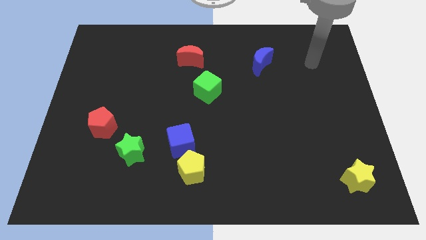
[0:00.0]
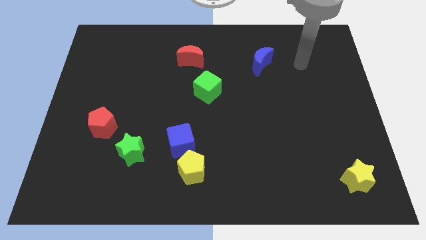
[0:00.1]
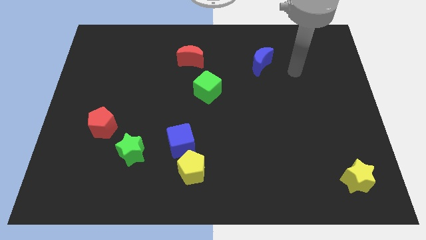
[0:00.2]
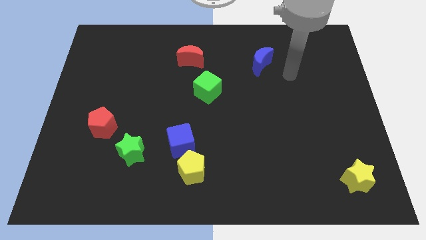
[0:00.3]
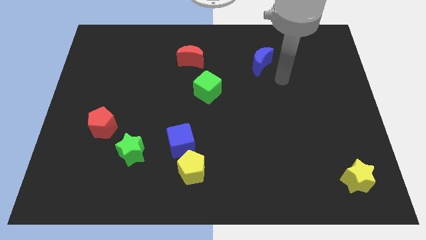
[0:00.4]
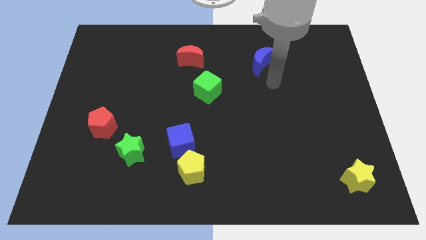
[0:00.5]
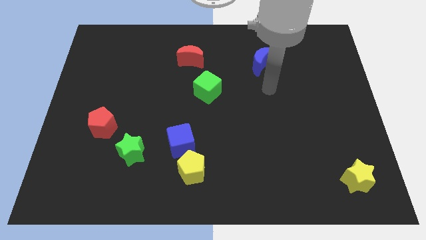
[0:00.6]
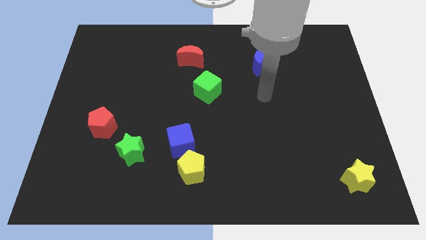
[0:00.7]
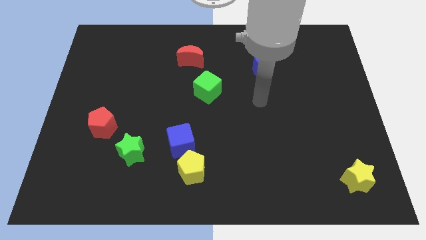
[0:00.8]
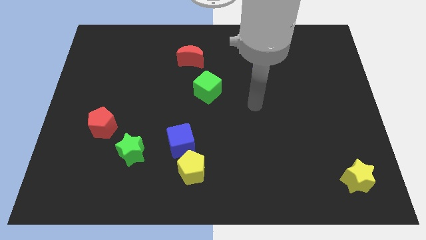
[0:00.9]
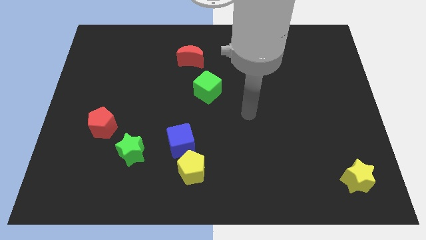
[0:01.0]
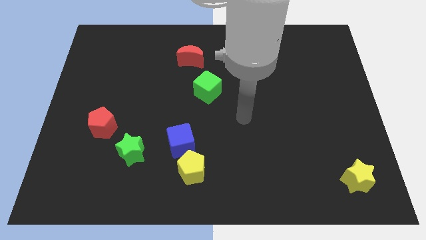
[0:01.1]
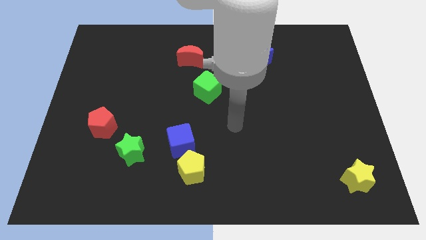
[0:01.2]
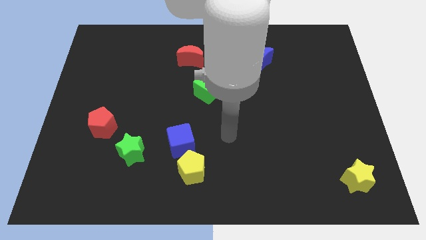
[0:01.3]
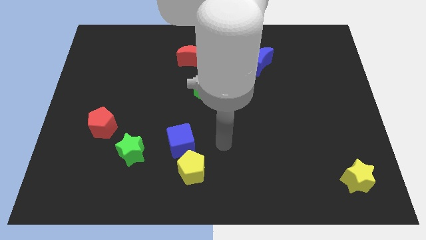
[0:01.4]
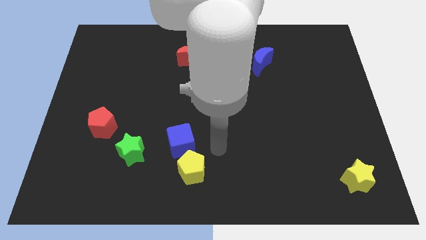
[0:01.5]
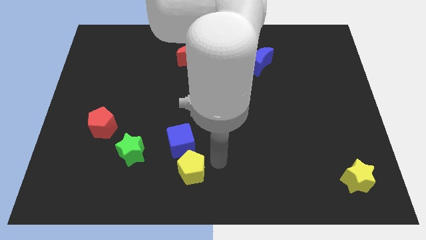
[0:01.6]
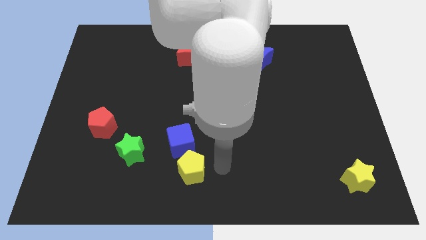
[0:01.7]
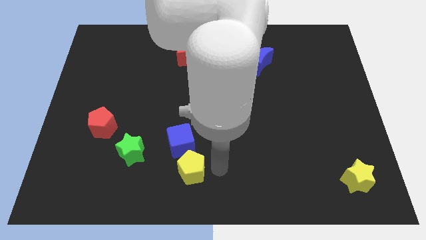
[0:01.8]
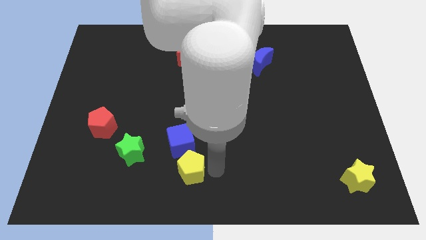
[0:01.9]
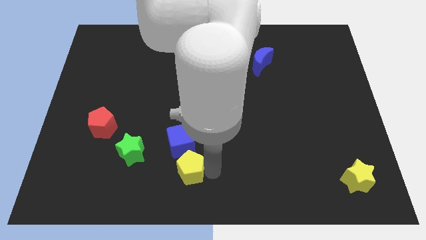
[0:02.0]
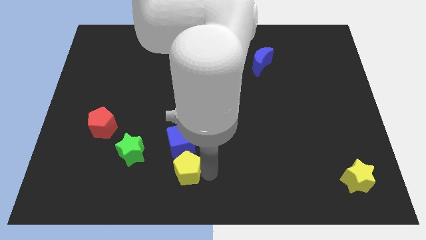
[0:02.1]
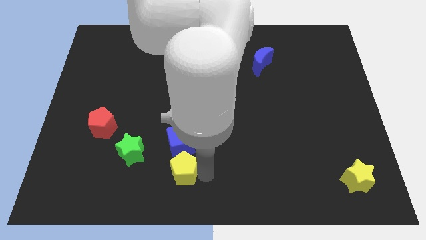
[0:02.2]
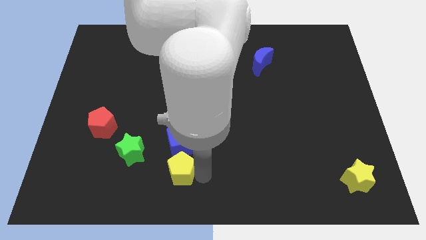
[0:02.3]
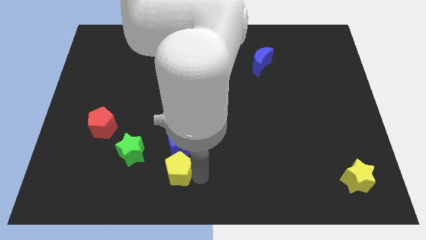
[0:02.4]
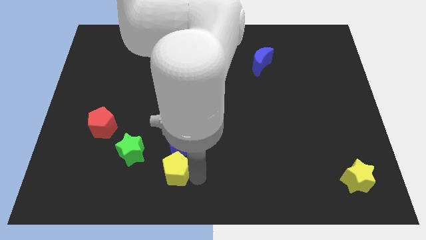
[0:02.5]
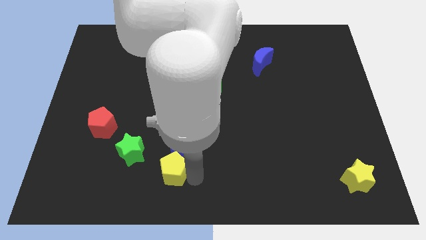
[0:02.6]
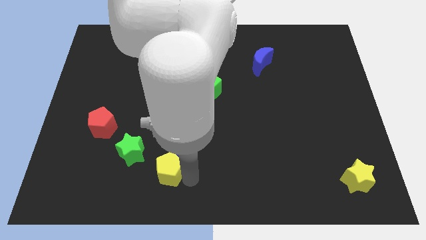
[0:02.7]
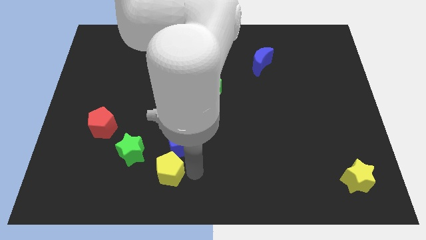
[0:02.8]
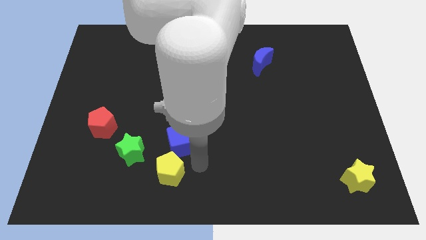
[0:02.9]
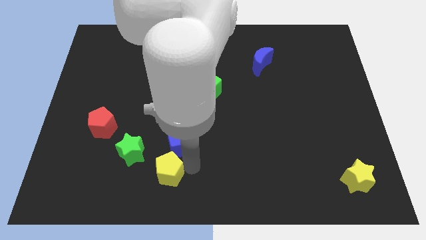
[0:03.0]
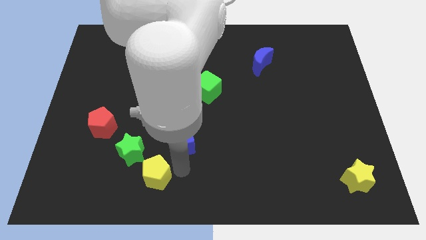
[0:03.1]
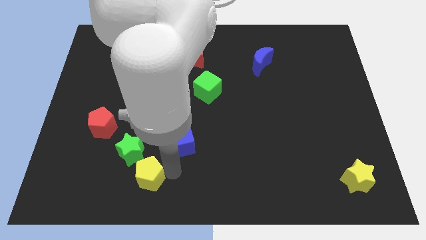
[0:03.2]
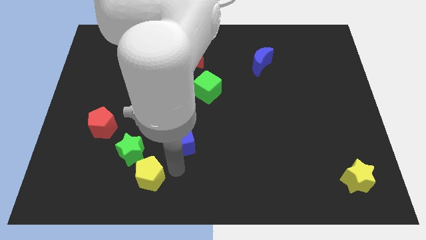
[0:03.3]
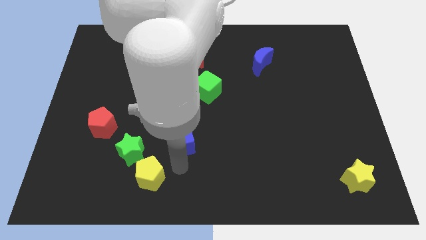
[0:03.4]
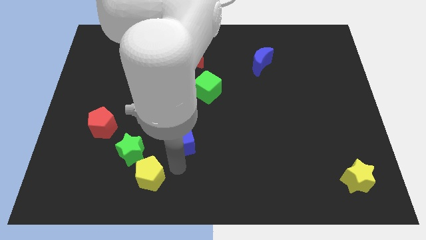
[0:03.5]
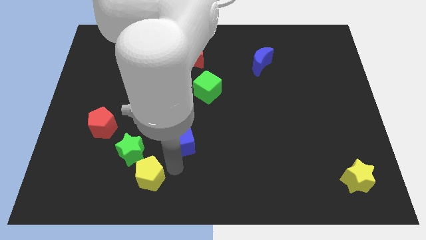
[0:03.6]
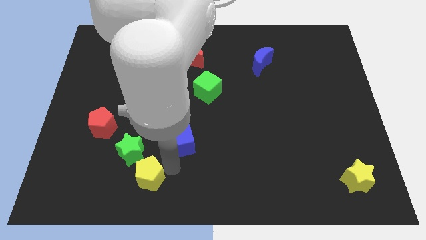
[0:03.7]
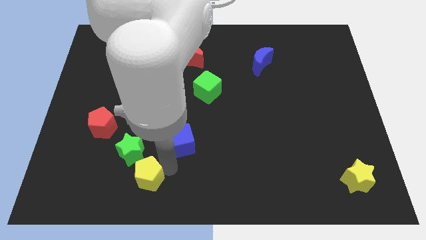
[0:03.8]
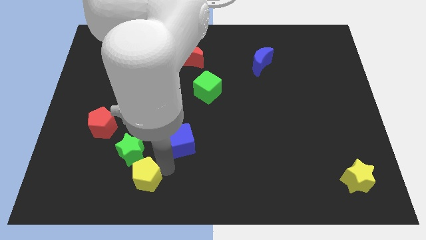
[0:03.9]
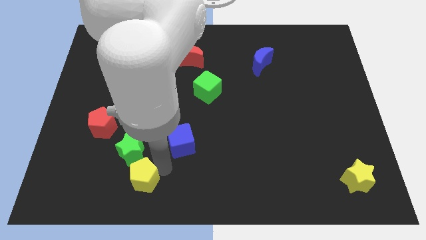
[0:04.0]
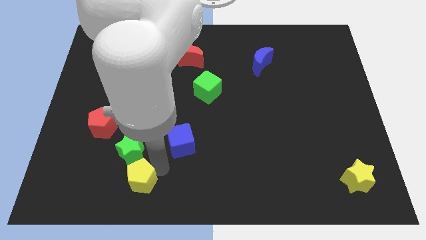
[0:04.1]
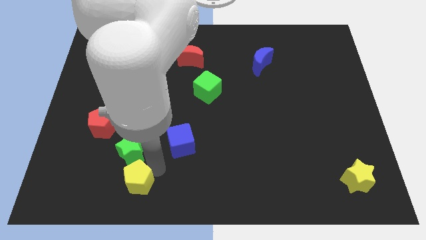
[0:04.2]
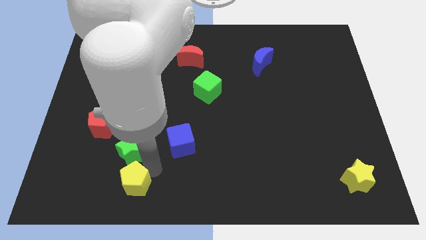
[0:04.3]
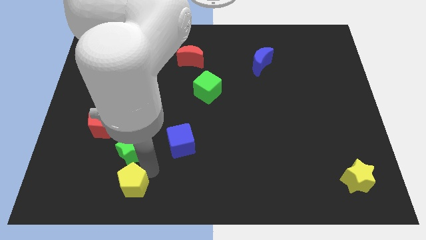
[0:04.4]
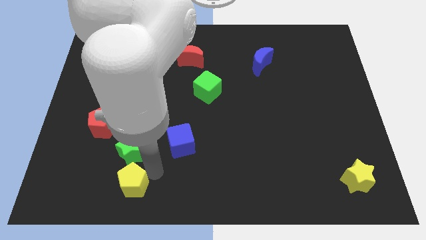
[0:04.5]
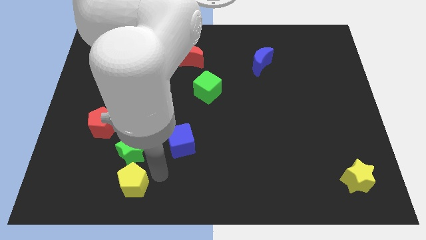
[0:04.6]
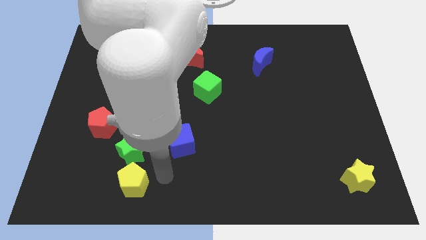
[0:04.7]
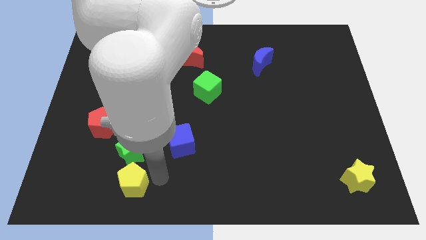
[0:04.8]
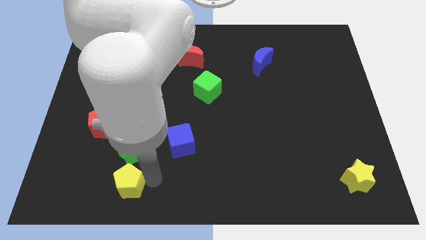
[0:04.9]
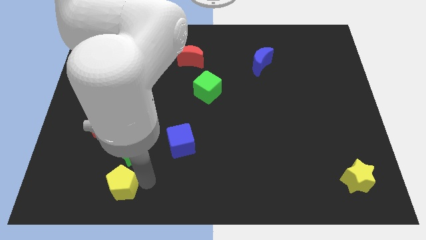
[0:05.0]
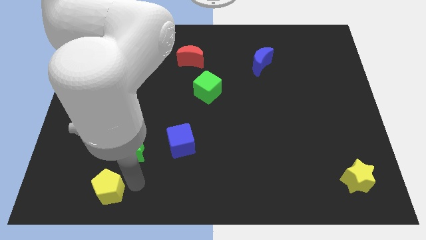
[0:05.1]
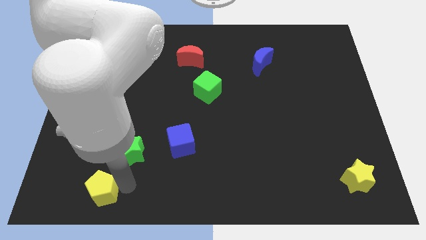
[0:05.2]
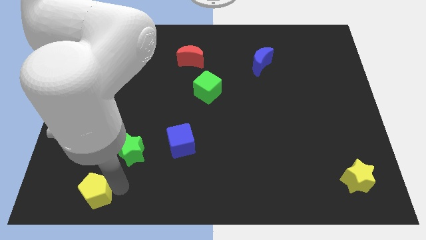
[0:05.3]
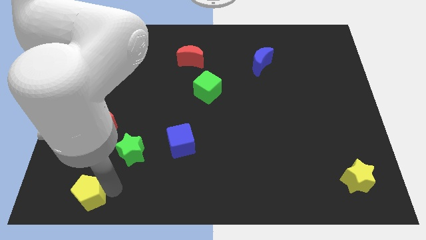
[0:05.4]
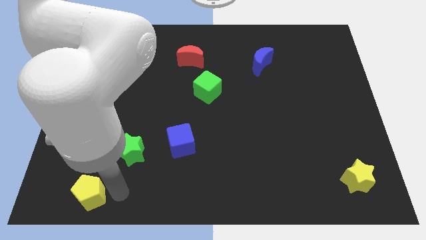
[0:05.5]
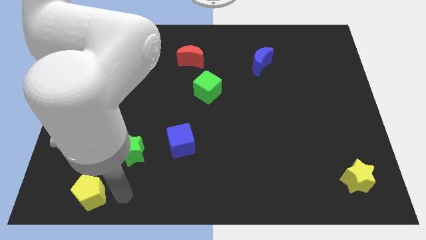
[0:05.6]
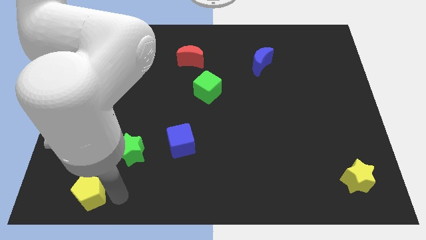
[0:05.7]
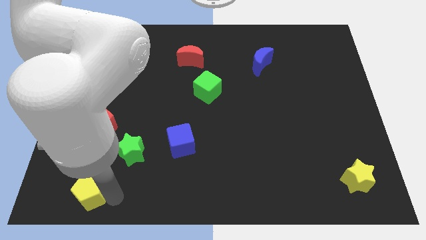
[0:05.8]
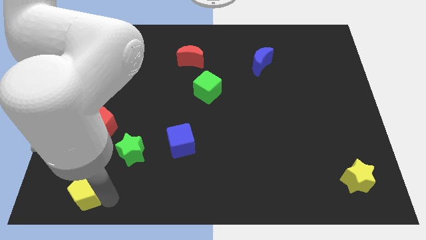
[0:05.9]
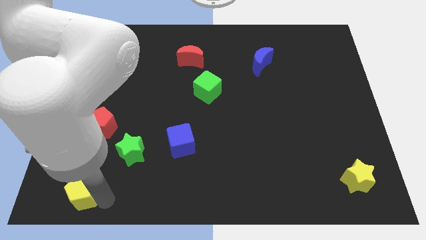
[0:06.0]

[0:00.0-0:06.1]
slide the yellow pentagon to the lower left corner

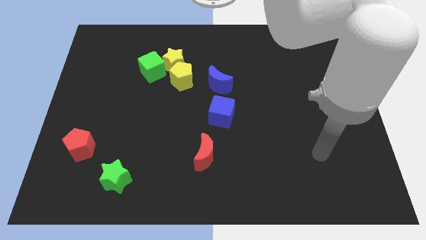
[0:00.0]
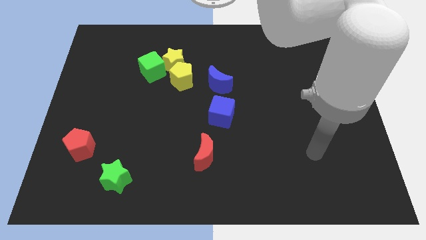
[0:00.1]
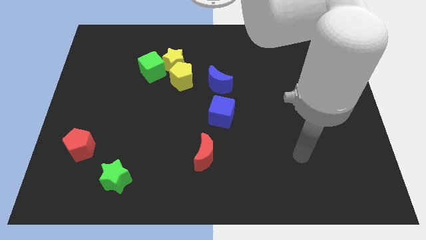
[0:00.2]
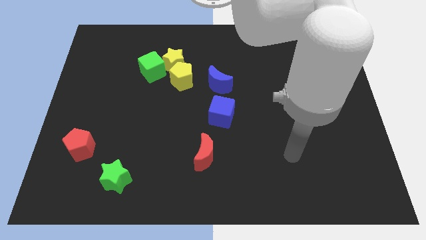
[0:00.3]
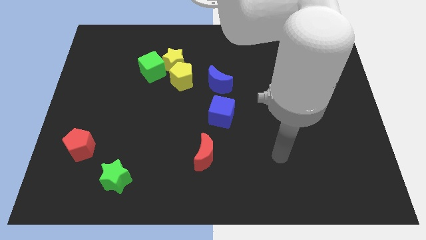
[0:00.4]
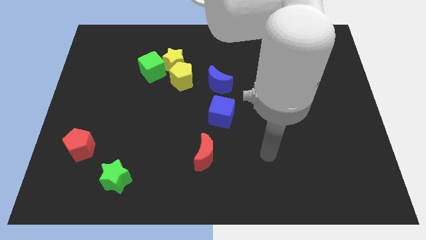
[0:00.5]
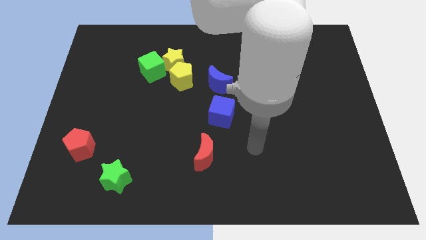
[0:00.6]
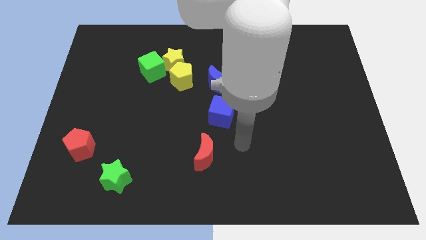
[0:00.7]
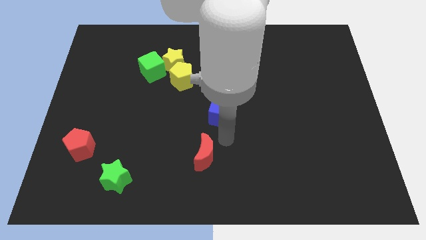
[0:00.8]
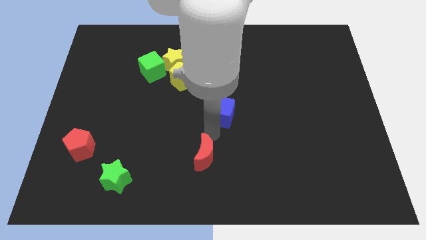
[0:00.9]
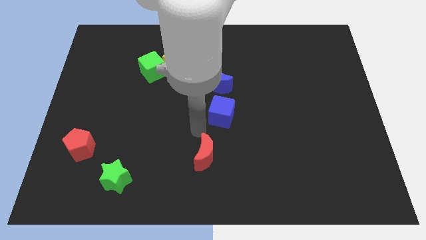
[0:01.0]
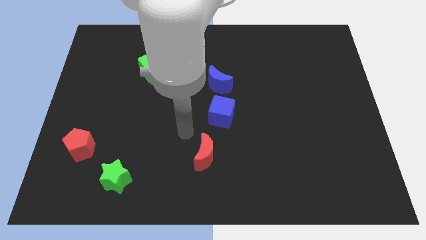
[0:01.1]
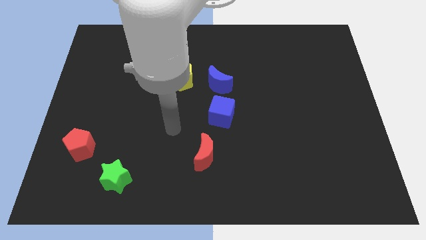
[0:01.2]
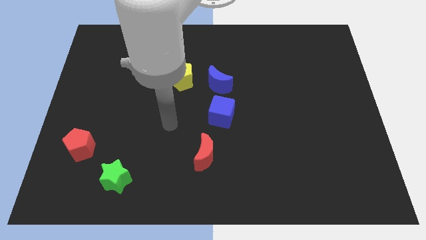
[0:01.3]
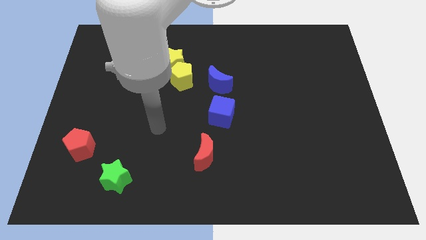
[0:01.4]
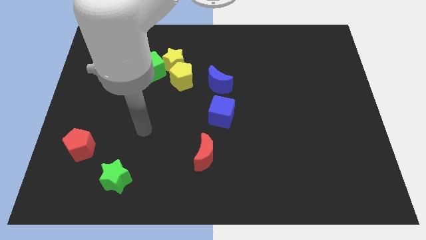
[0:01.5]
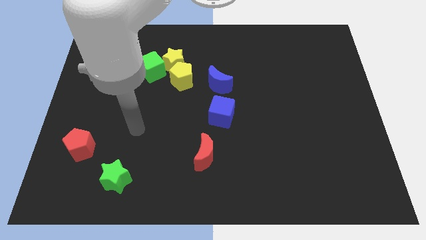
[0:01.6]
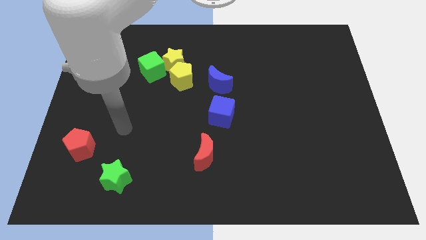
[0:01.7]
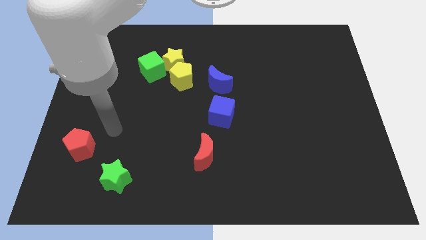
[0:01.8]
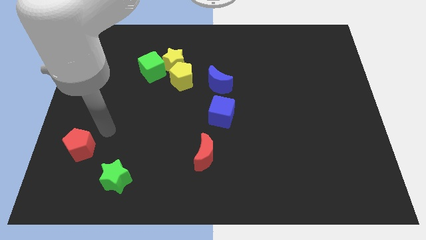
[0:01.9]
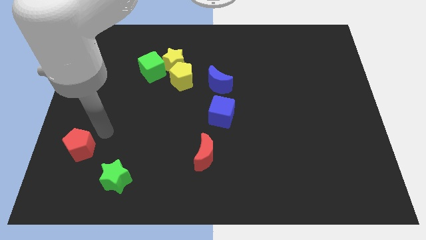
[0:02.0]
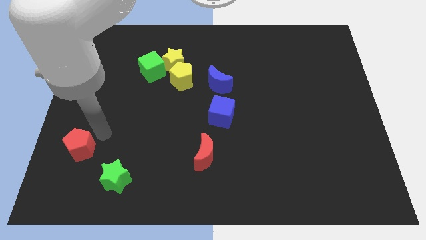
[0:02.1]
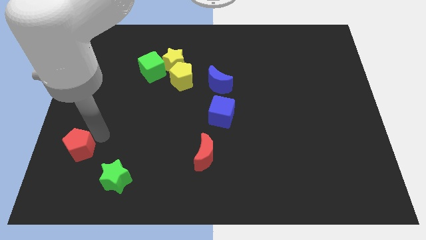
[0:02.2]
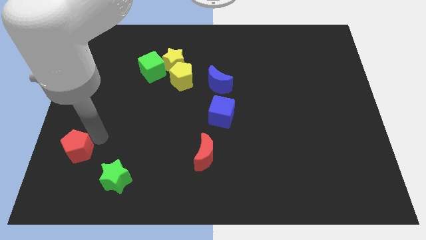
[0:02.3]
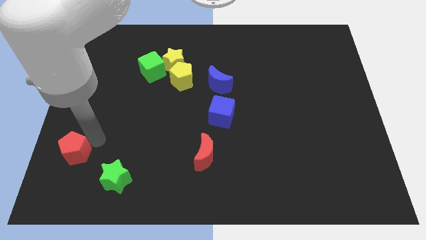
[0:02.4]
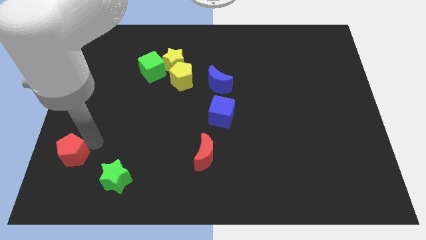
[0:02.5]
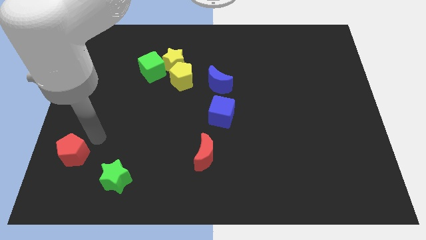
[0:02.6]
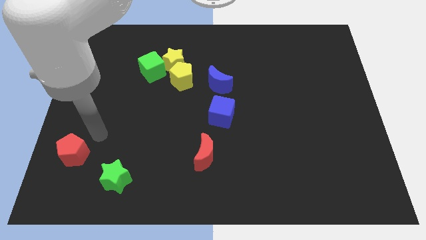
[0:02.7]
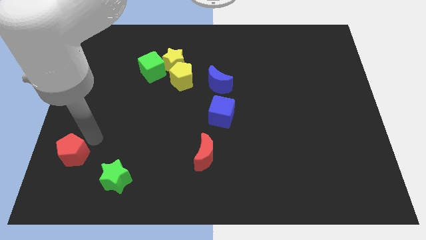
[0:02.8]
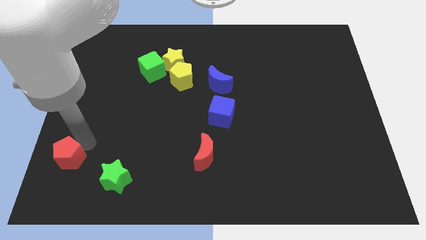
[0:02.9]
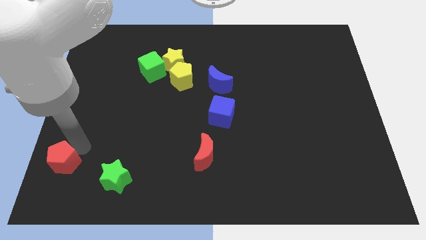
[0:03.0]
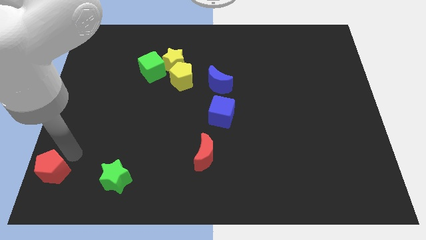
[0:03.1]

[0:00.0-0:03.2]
put the red pentagon to the lower left corner
